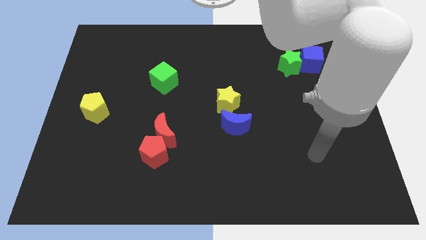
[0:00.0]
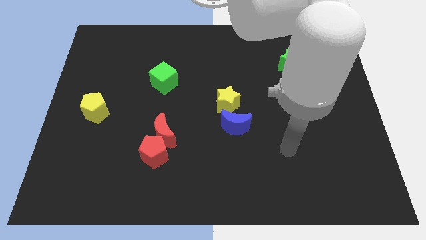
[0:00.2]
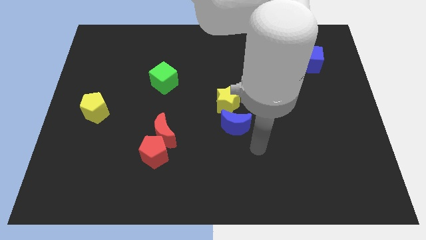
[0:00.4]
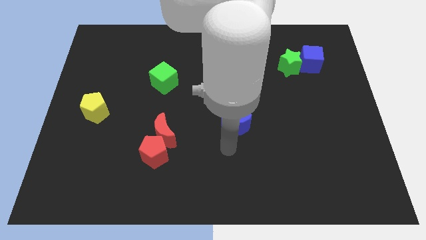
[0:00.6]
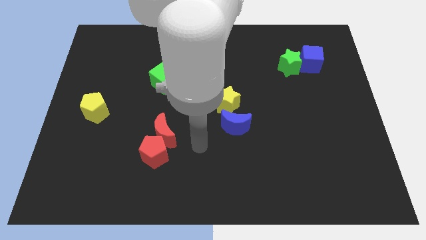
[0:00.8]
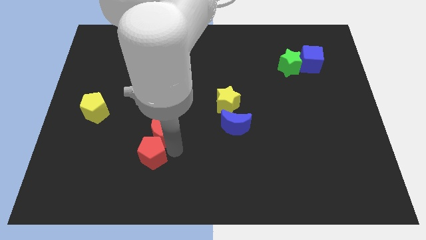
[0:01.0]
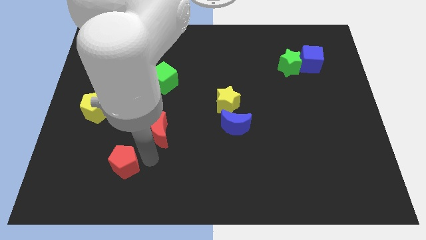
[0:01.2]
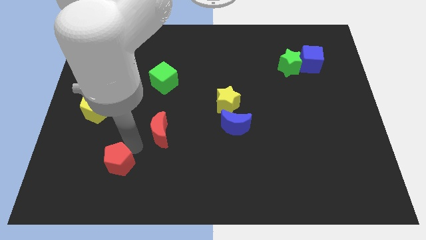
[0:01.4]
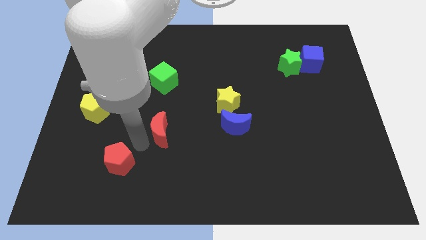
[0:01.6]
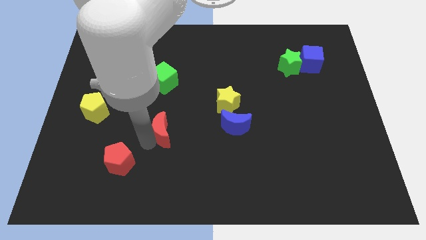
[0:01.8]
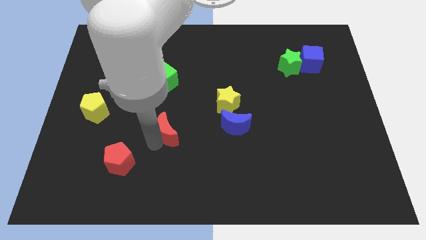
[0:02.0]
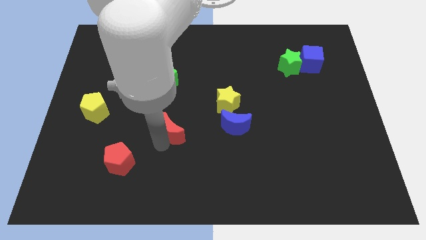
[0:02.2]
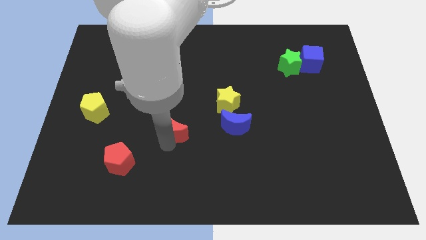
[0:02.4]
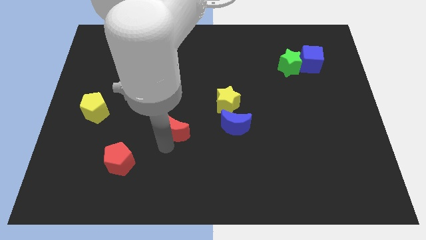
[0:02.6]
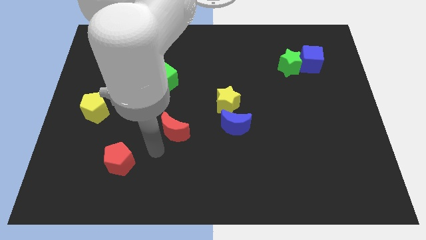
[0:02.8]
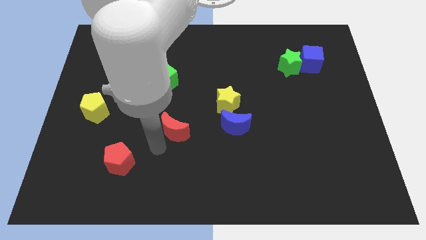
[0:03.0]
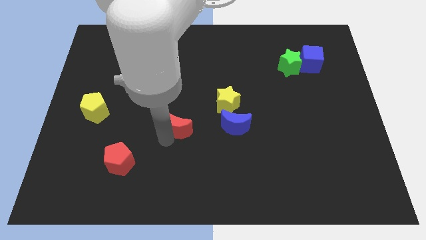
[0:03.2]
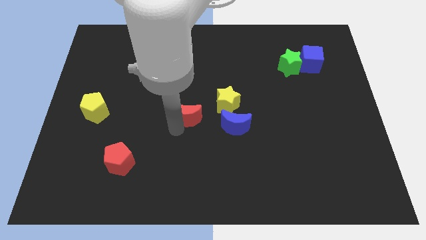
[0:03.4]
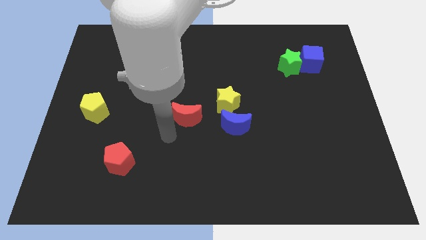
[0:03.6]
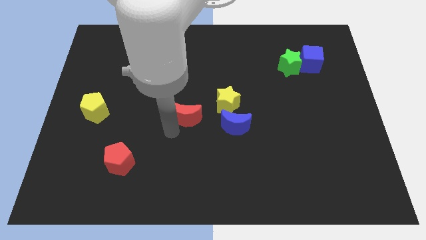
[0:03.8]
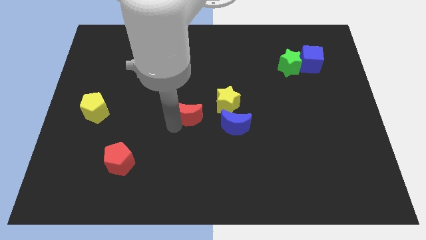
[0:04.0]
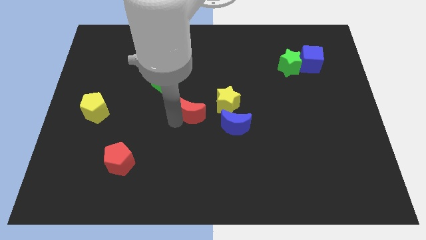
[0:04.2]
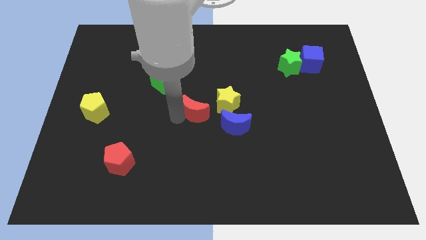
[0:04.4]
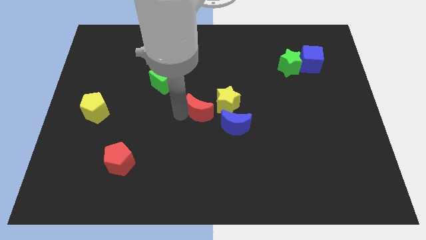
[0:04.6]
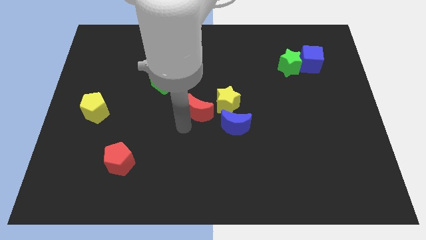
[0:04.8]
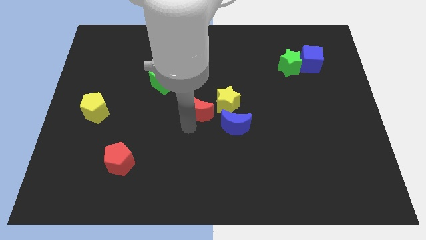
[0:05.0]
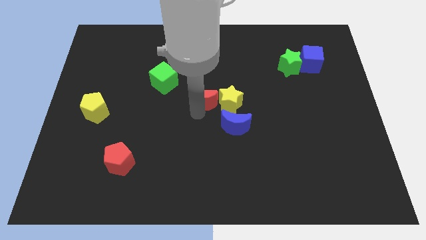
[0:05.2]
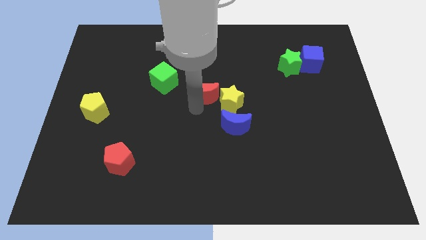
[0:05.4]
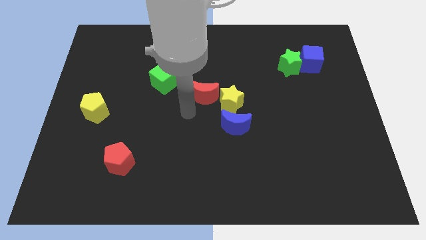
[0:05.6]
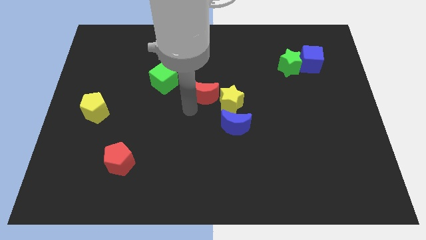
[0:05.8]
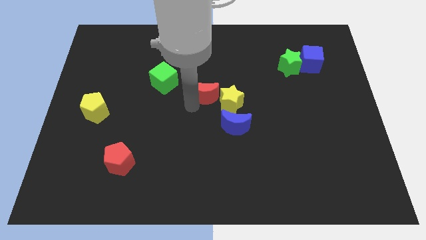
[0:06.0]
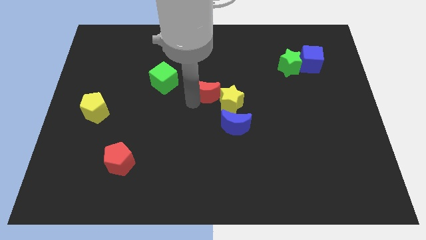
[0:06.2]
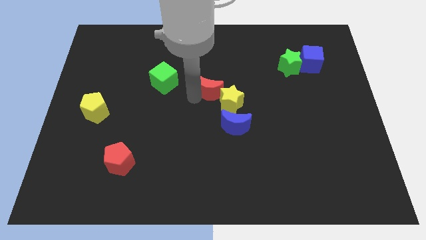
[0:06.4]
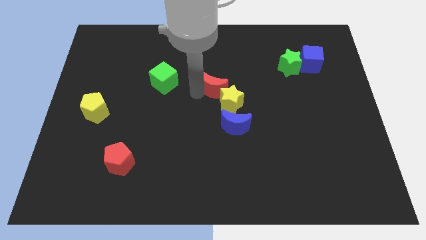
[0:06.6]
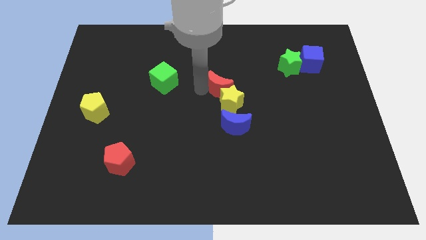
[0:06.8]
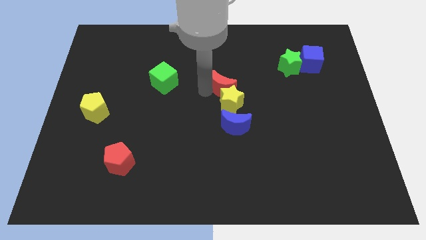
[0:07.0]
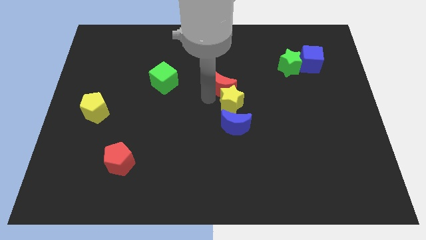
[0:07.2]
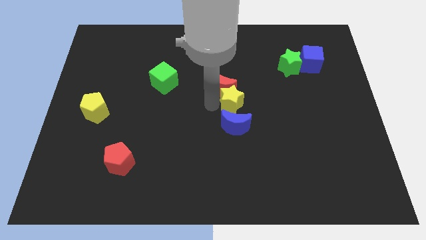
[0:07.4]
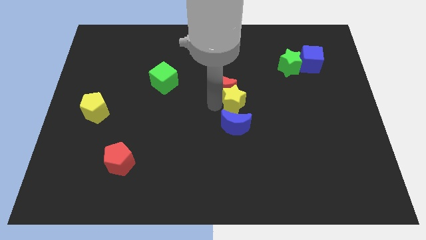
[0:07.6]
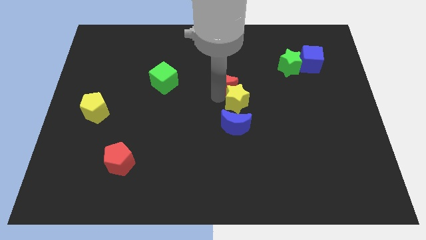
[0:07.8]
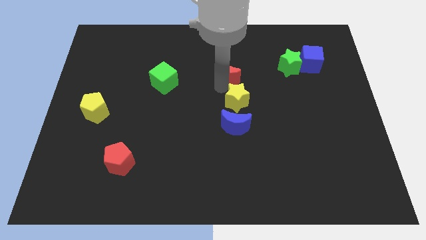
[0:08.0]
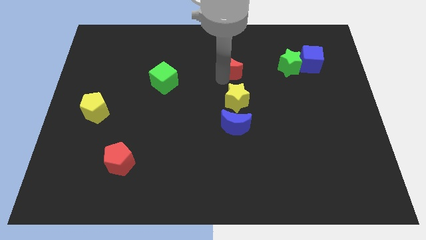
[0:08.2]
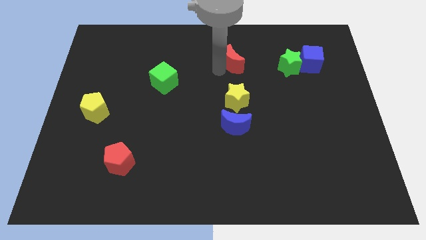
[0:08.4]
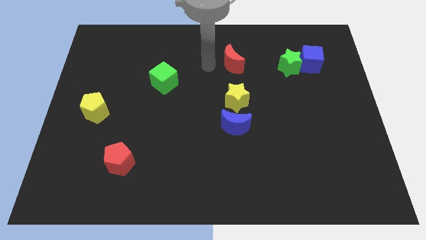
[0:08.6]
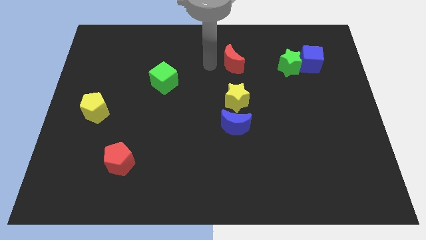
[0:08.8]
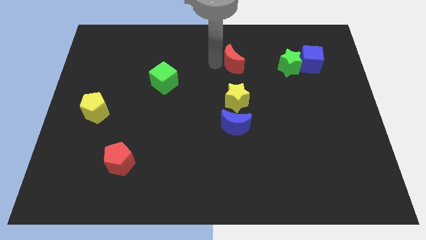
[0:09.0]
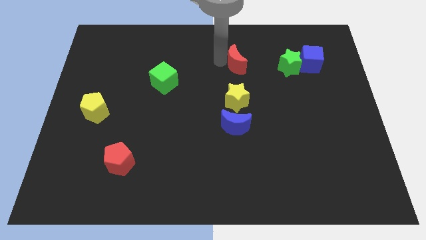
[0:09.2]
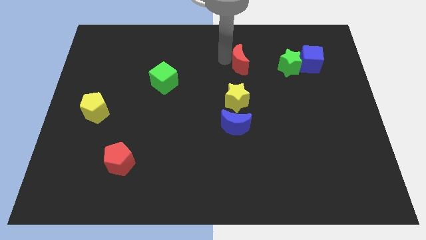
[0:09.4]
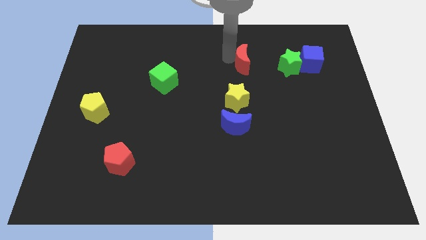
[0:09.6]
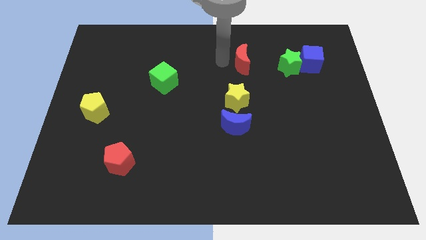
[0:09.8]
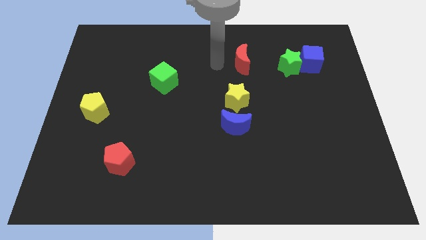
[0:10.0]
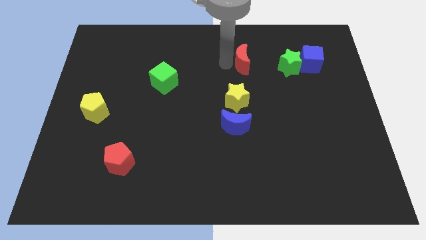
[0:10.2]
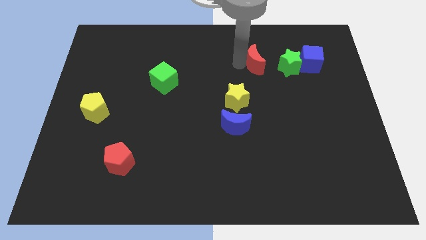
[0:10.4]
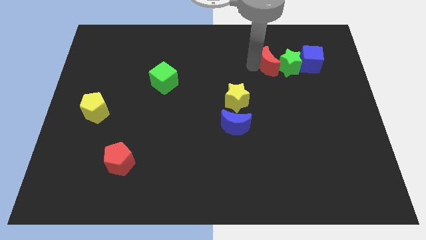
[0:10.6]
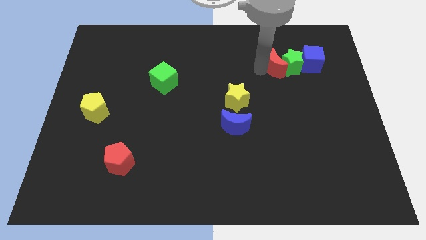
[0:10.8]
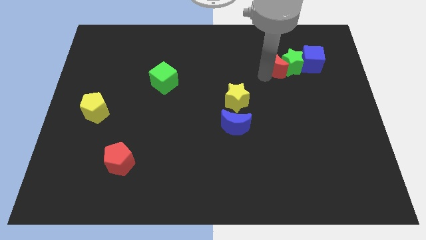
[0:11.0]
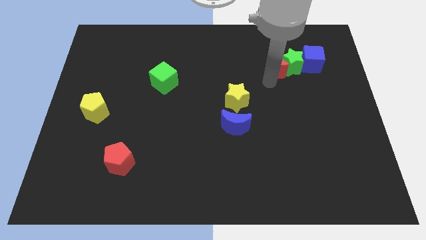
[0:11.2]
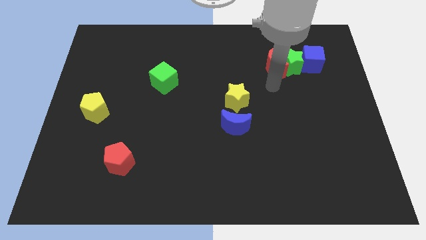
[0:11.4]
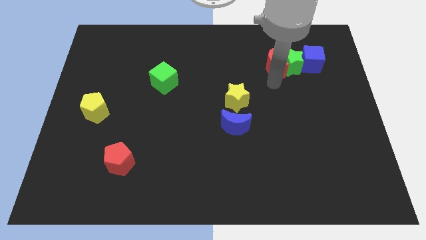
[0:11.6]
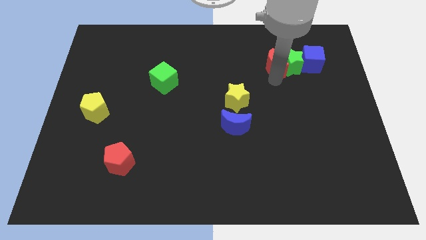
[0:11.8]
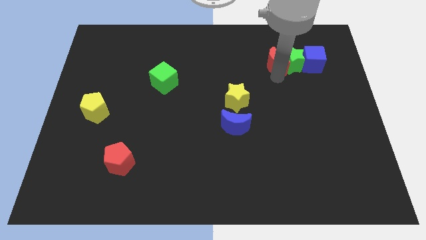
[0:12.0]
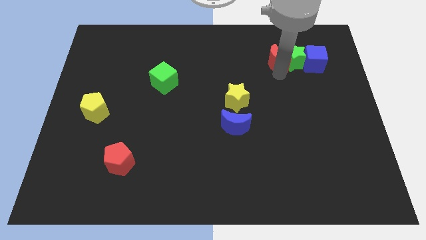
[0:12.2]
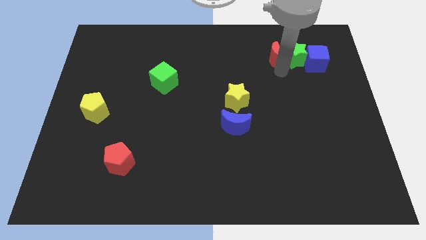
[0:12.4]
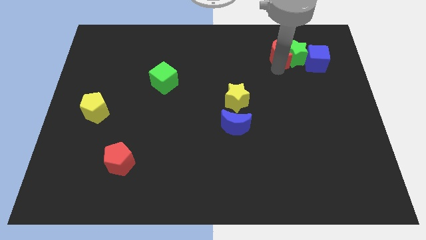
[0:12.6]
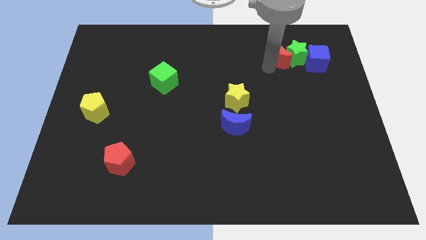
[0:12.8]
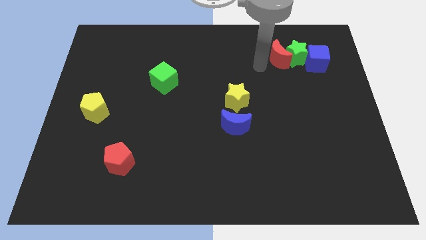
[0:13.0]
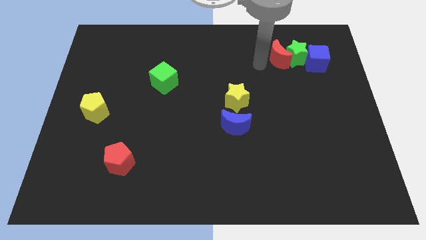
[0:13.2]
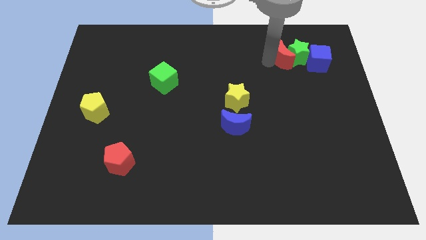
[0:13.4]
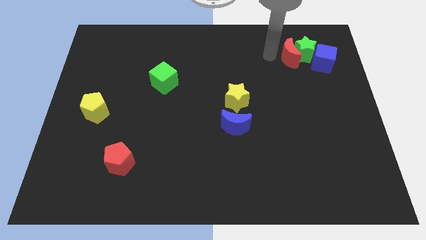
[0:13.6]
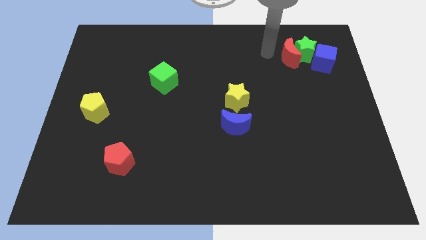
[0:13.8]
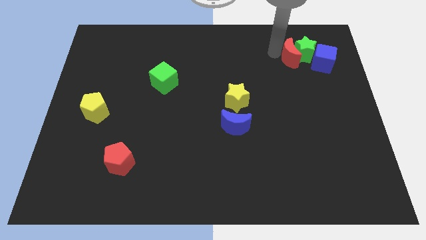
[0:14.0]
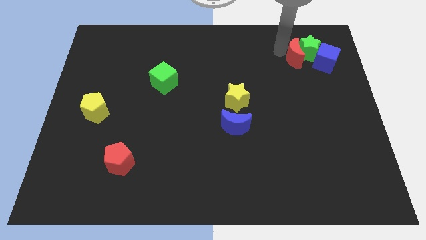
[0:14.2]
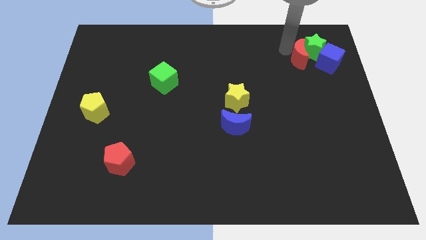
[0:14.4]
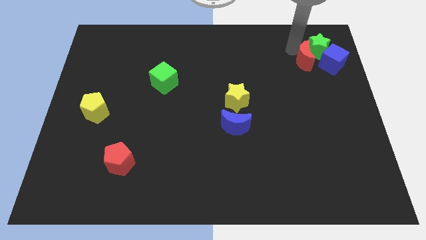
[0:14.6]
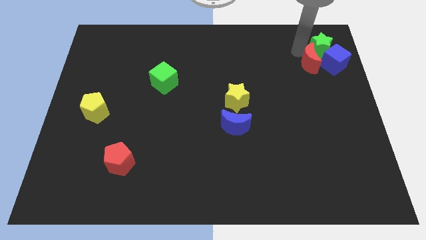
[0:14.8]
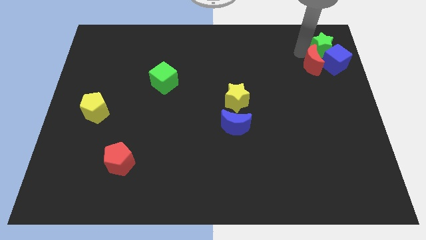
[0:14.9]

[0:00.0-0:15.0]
put the red moon next to the blue cube

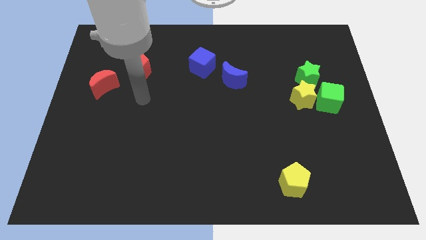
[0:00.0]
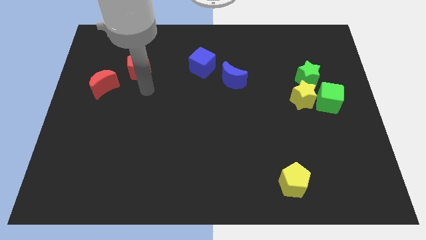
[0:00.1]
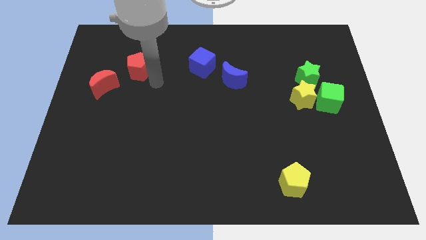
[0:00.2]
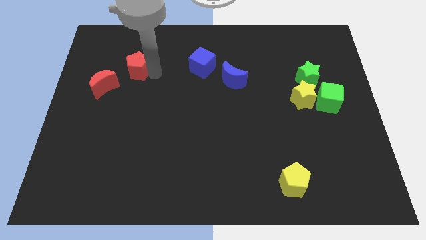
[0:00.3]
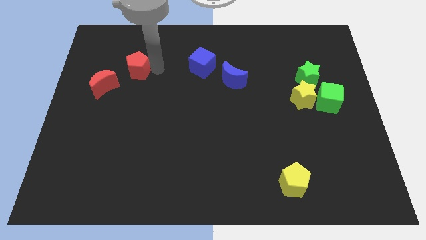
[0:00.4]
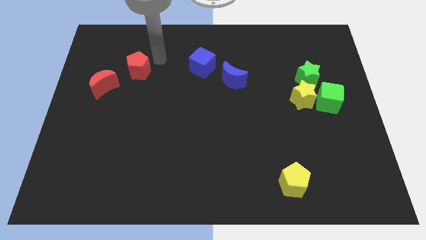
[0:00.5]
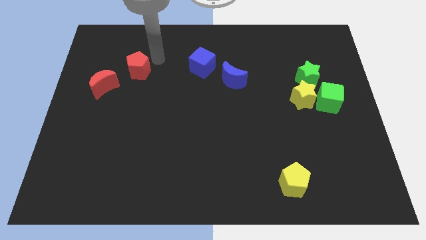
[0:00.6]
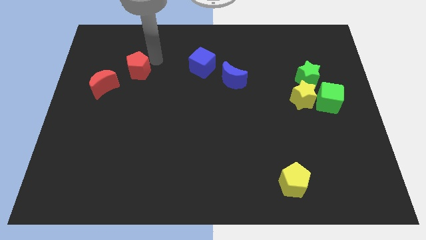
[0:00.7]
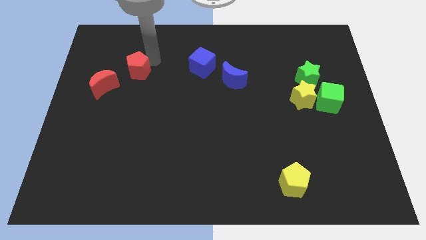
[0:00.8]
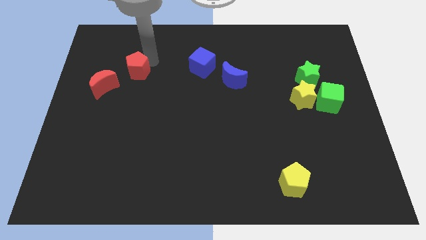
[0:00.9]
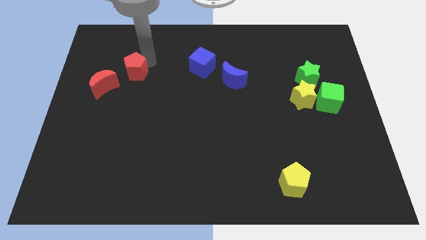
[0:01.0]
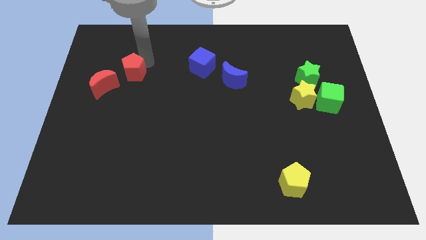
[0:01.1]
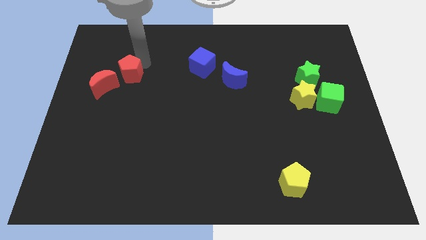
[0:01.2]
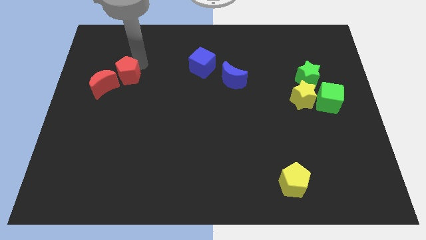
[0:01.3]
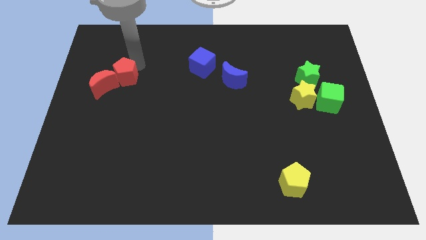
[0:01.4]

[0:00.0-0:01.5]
move the red pentagon to the red moon
